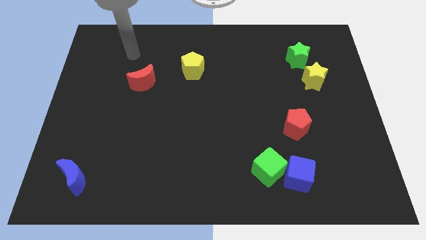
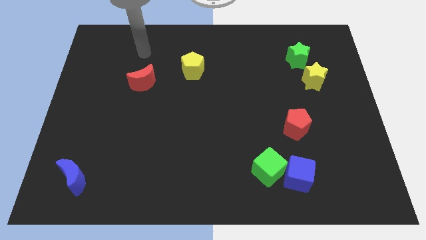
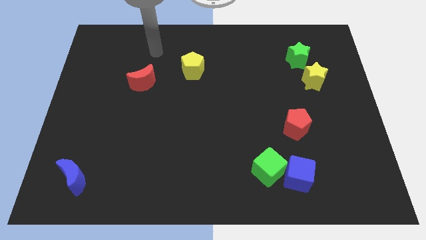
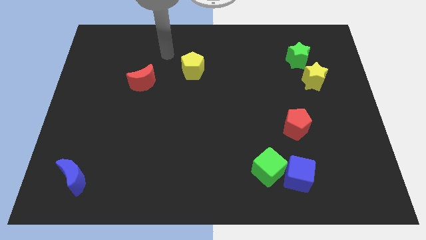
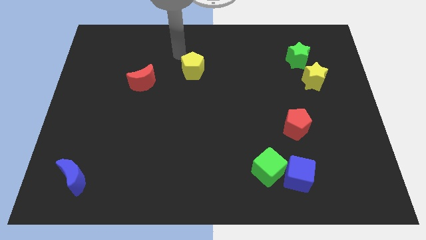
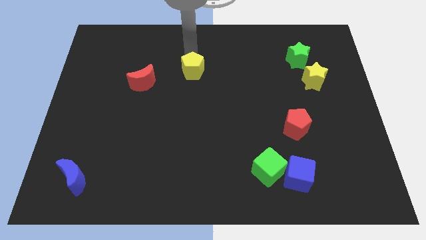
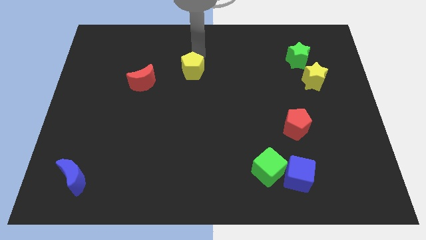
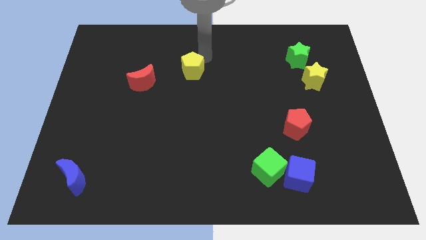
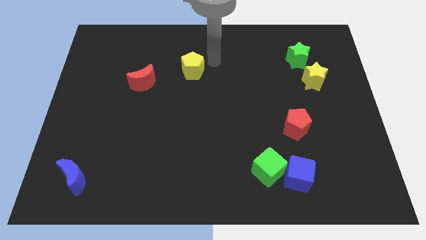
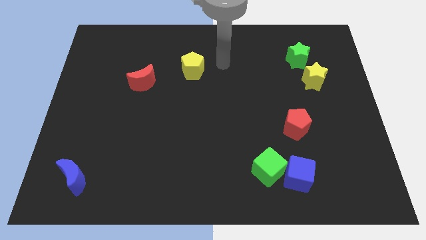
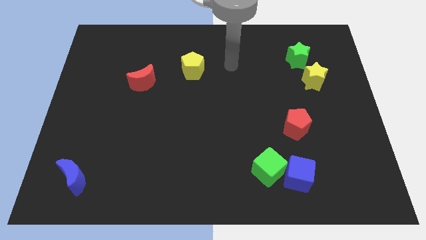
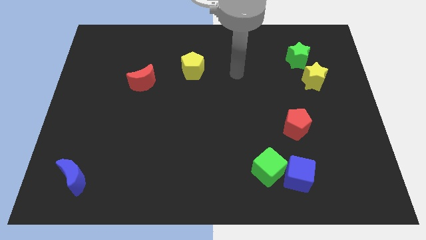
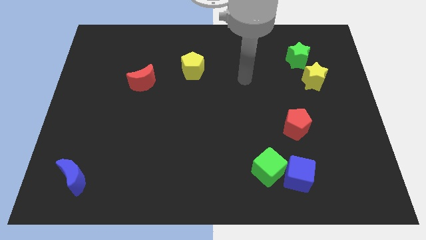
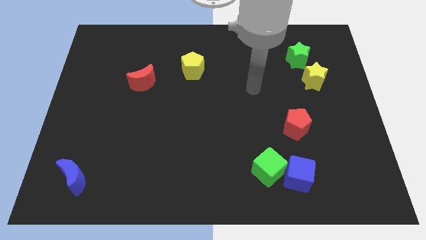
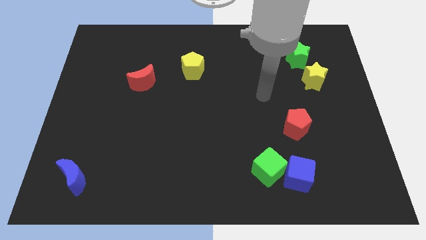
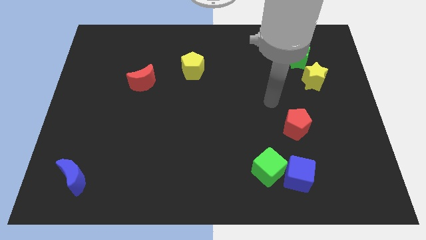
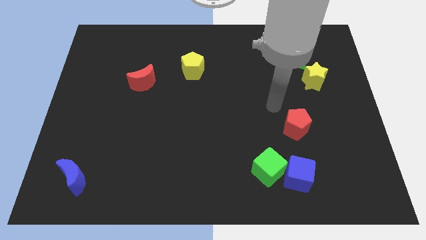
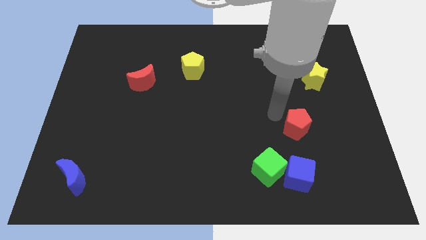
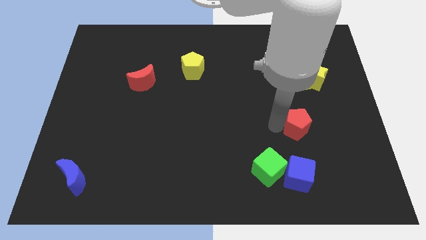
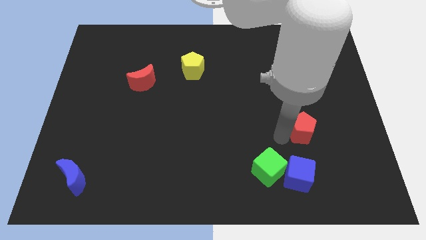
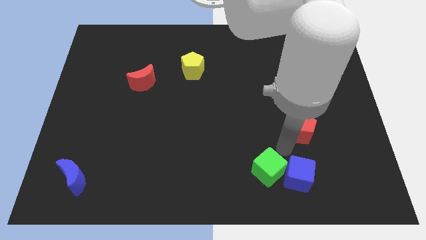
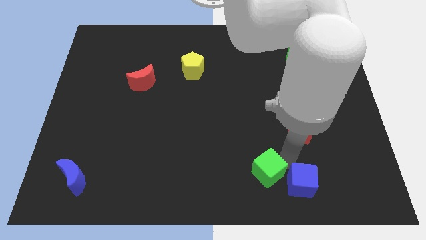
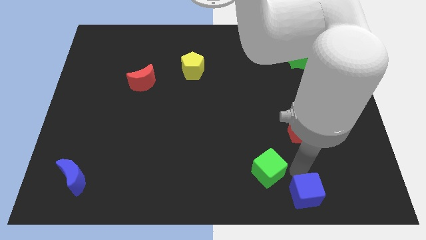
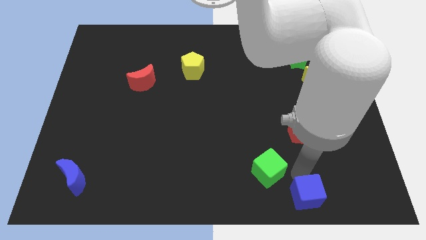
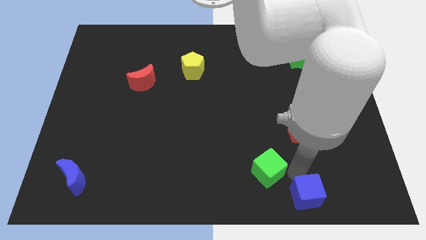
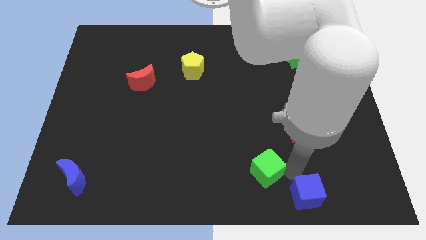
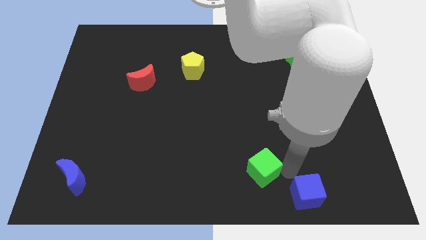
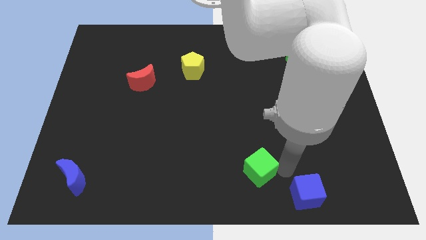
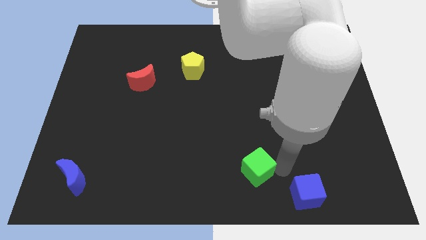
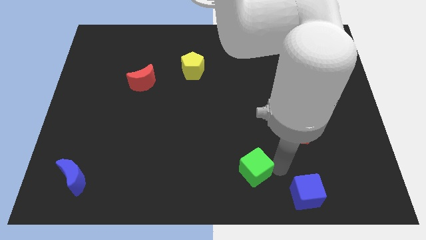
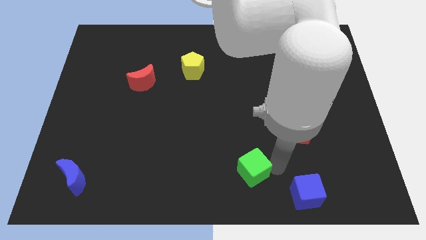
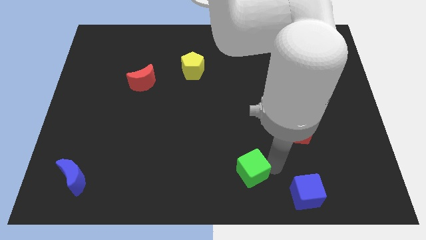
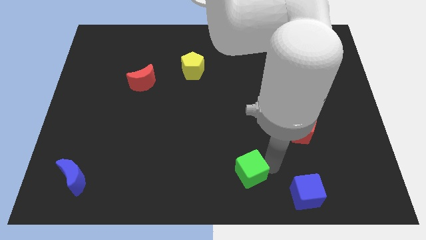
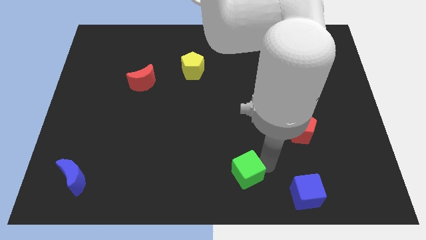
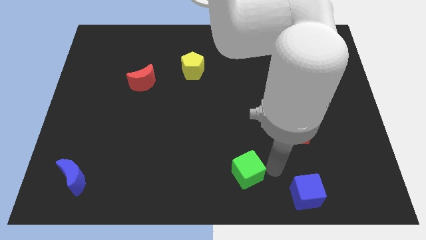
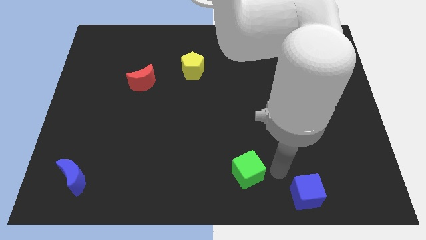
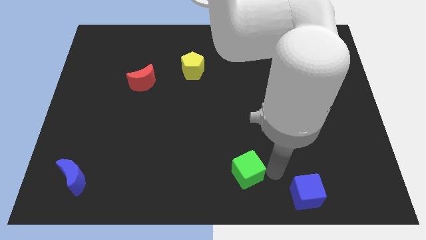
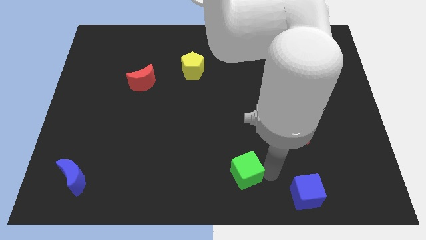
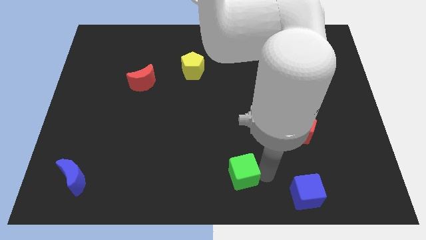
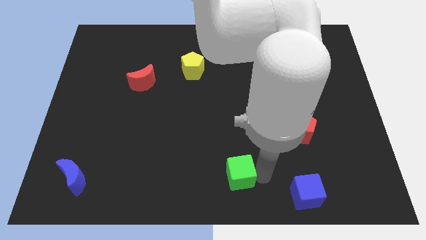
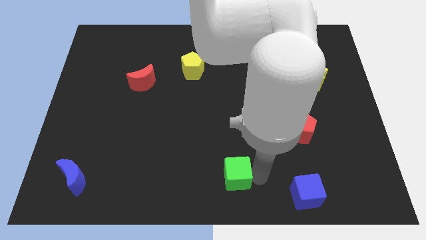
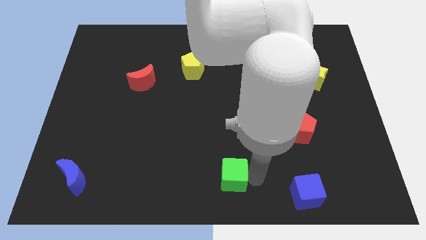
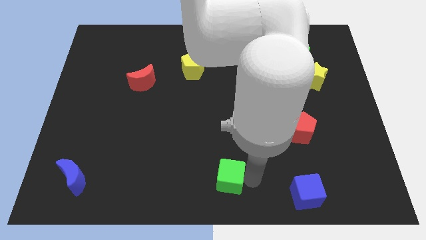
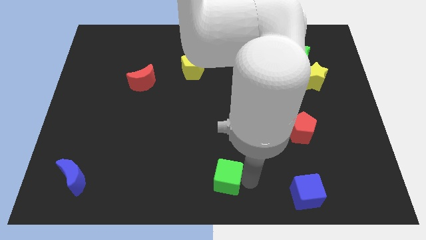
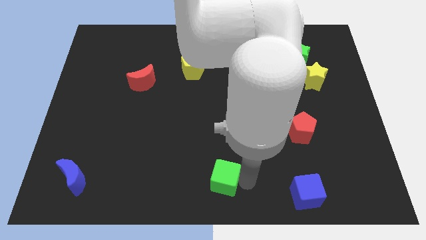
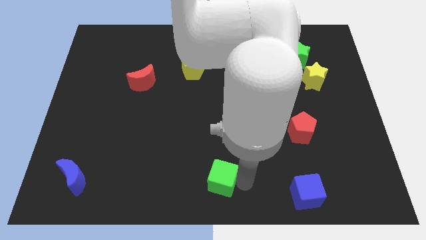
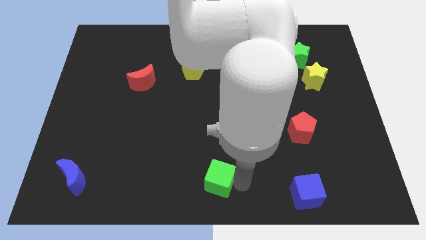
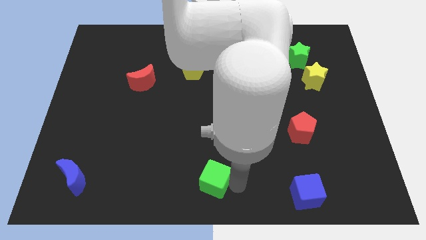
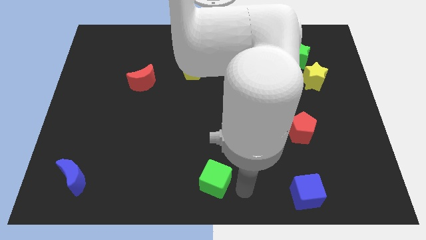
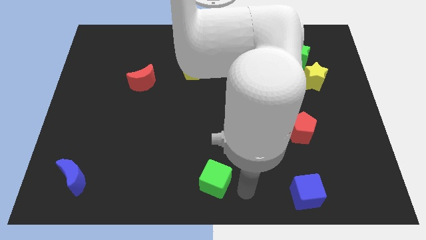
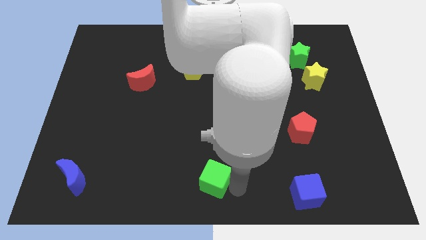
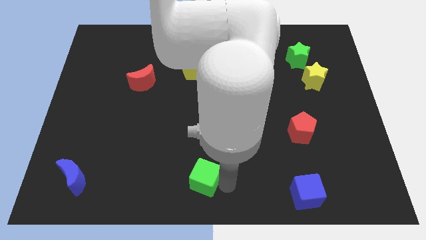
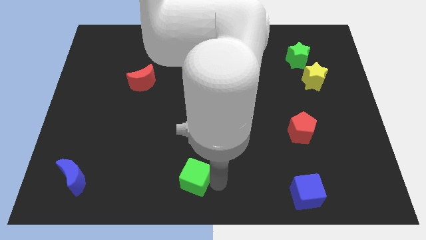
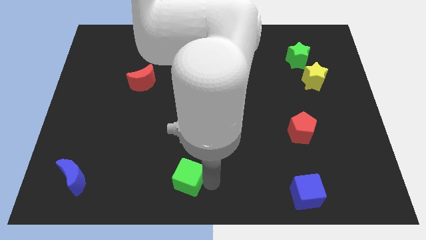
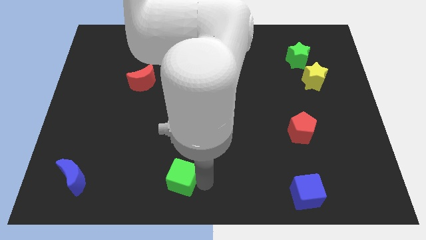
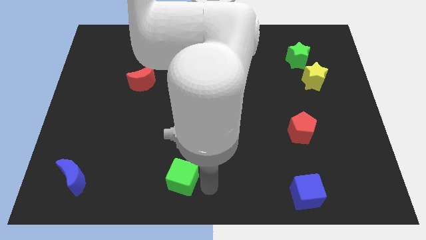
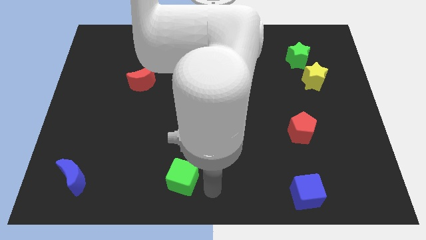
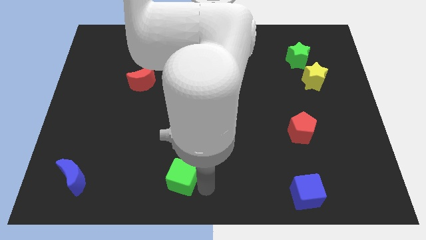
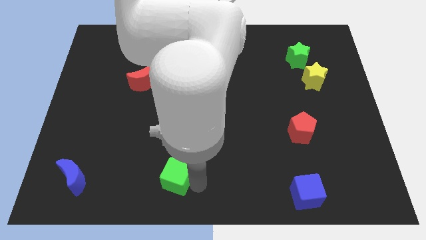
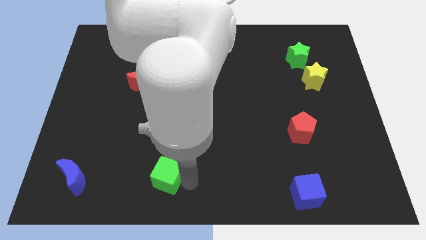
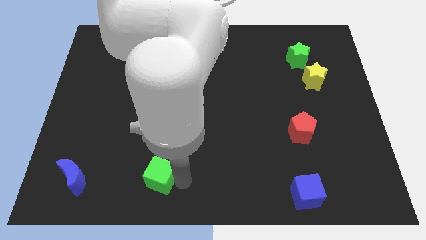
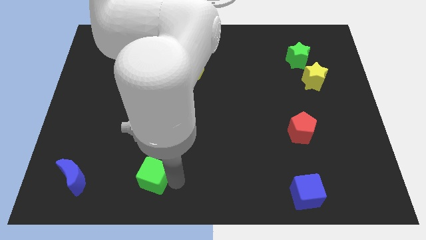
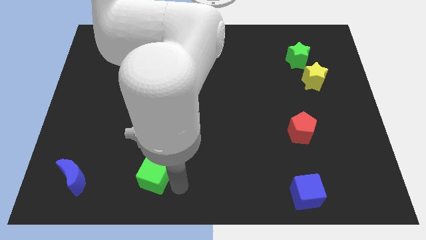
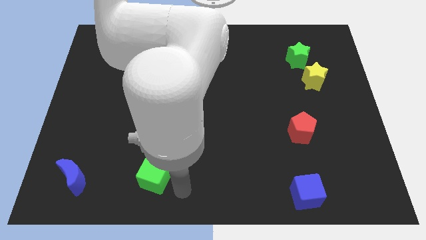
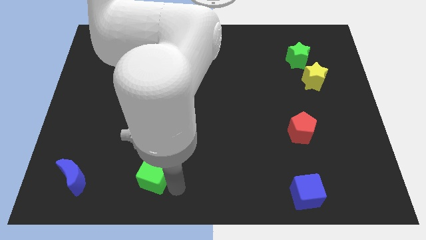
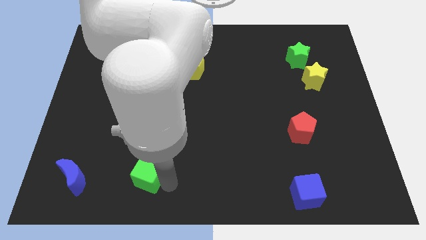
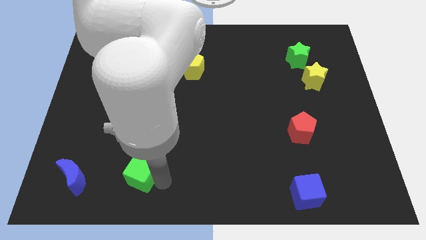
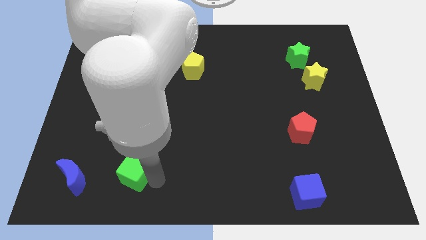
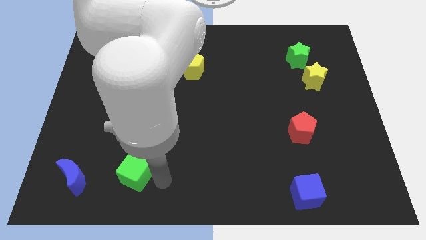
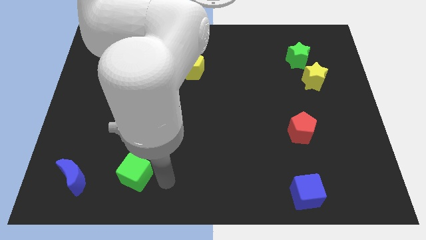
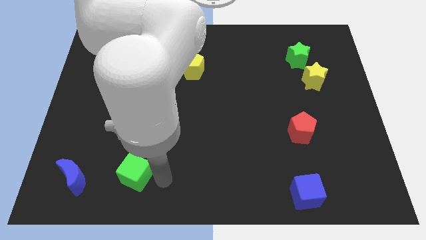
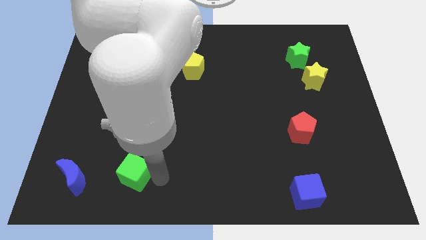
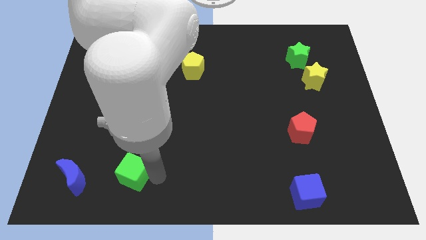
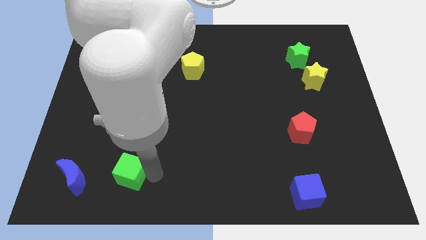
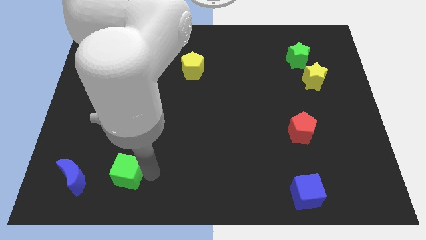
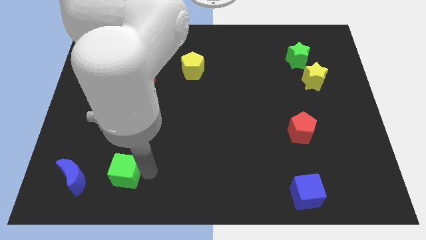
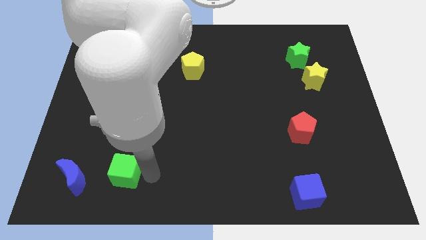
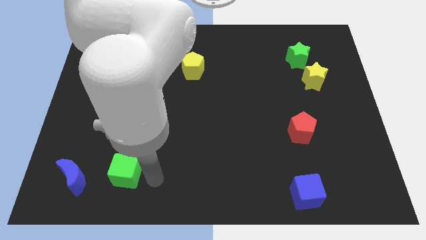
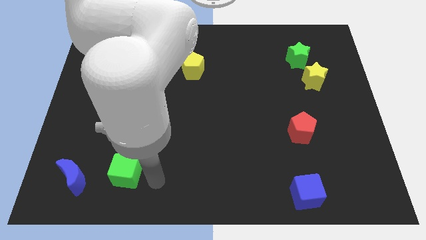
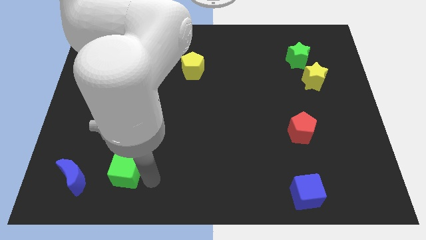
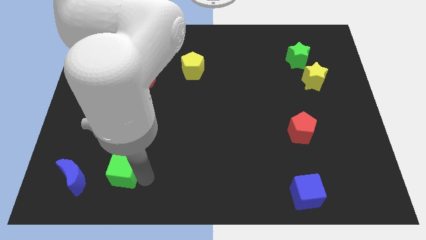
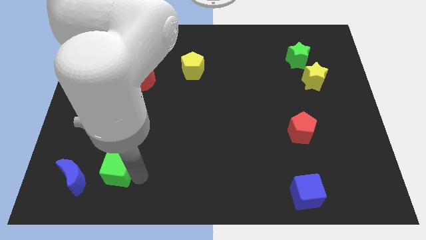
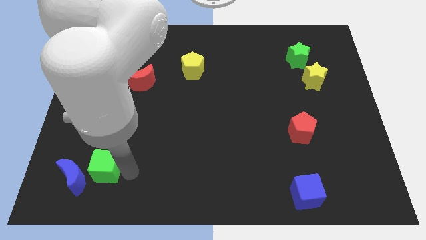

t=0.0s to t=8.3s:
put the green cube next to the blue moon
